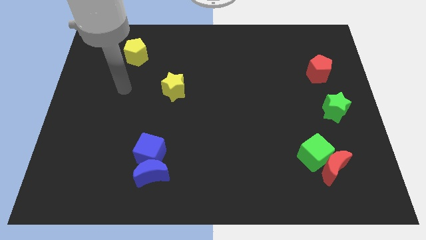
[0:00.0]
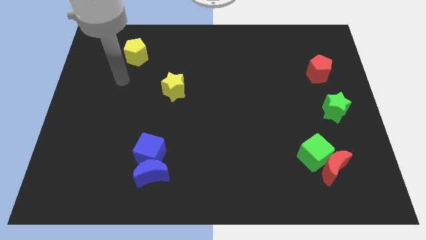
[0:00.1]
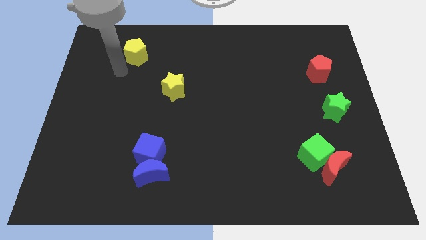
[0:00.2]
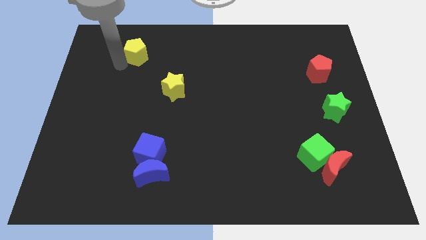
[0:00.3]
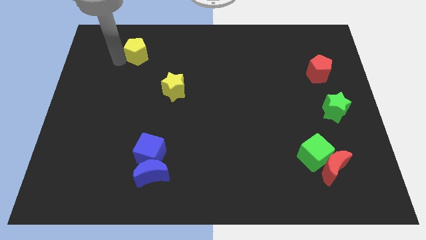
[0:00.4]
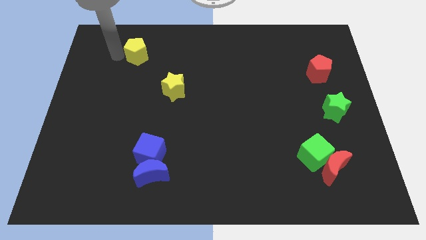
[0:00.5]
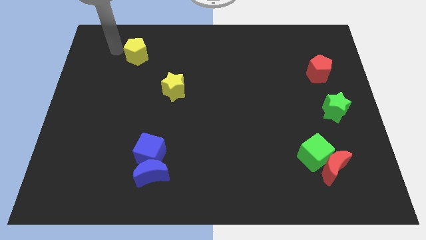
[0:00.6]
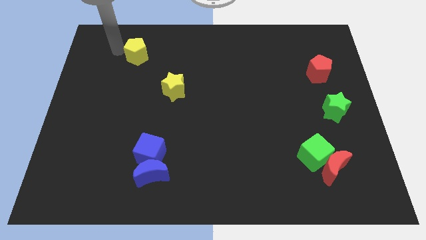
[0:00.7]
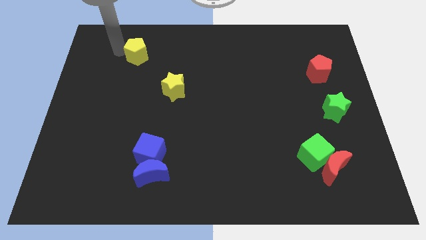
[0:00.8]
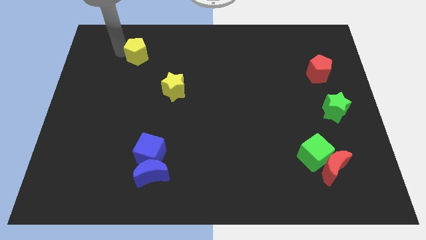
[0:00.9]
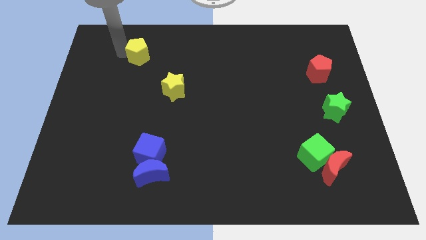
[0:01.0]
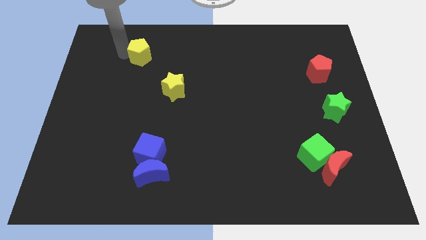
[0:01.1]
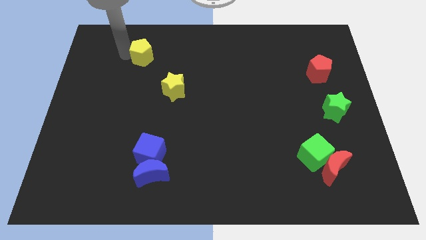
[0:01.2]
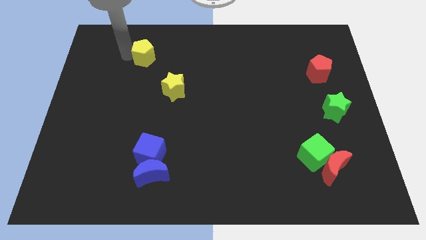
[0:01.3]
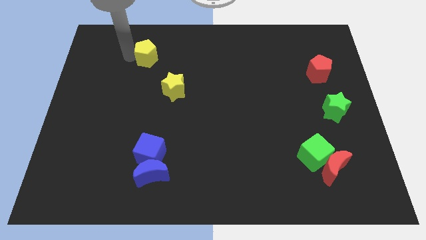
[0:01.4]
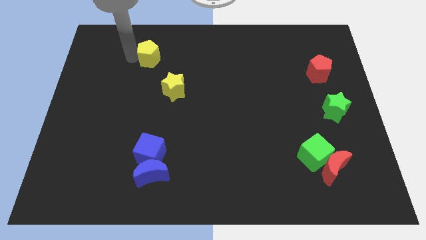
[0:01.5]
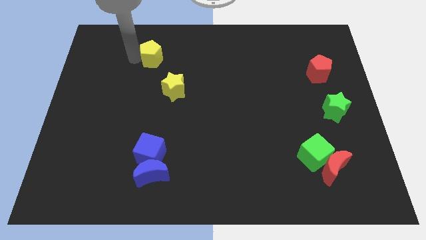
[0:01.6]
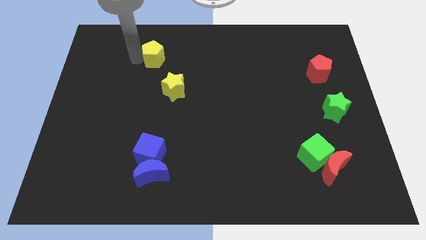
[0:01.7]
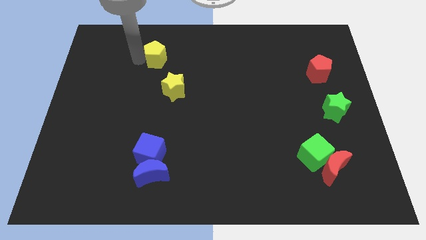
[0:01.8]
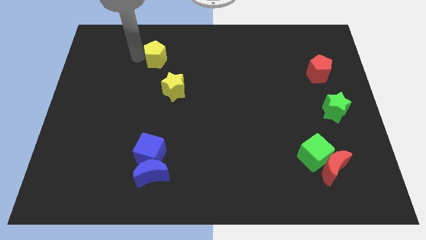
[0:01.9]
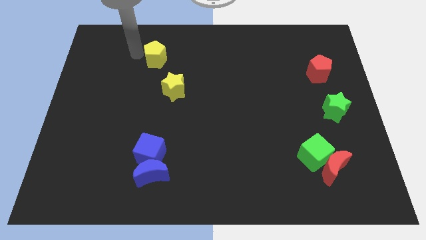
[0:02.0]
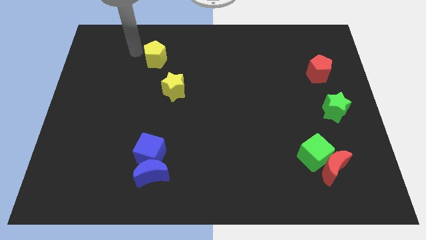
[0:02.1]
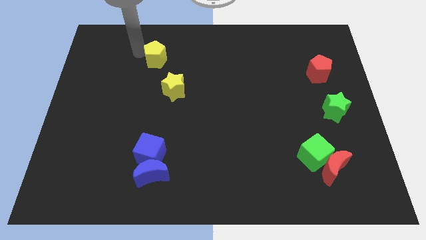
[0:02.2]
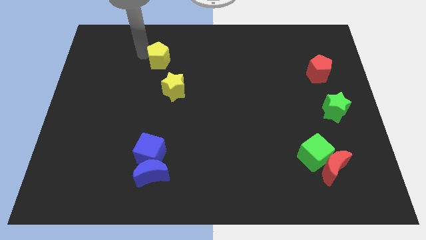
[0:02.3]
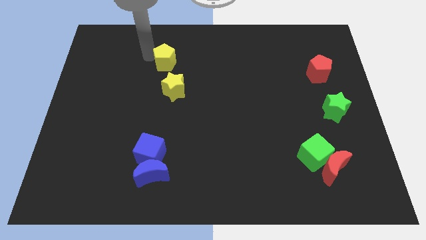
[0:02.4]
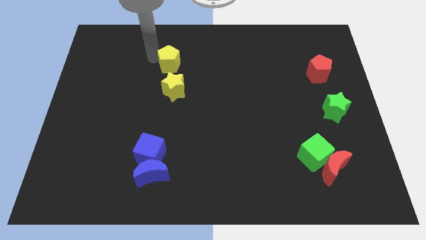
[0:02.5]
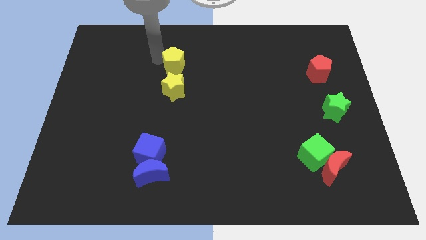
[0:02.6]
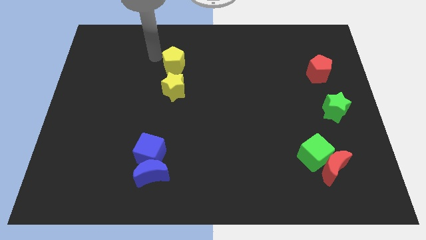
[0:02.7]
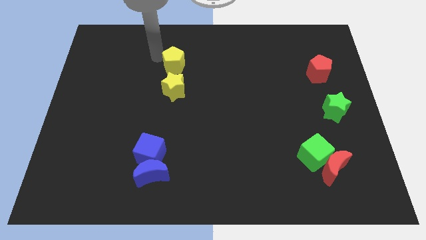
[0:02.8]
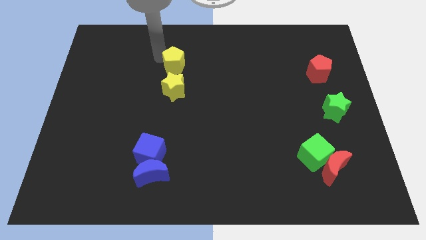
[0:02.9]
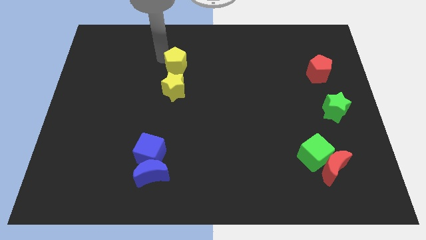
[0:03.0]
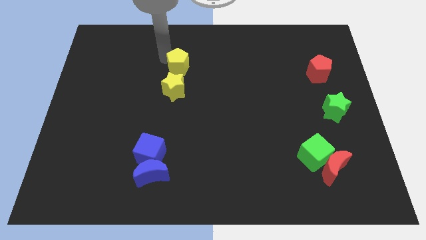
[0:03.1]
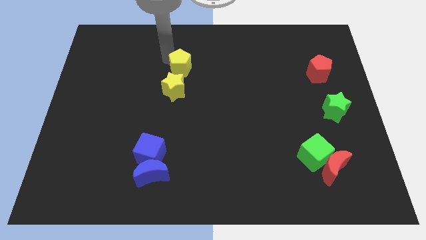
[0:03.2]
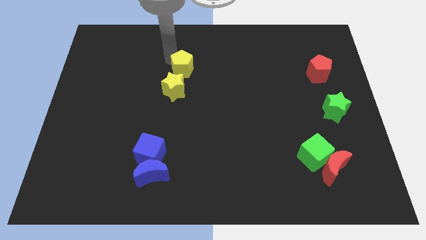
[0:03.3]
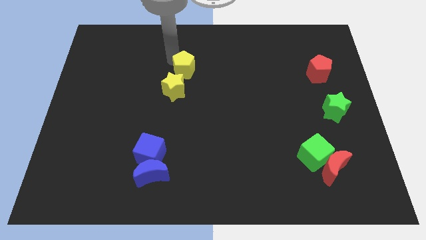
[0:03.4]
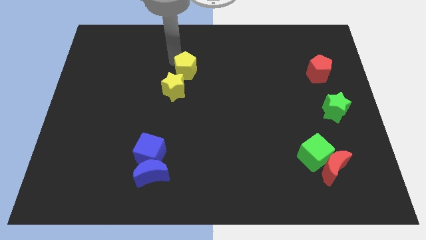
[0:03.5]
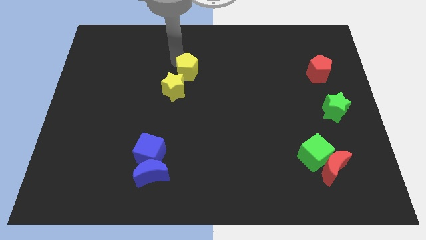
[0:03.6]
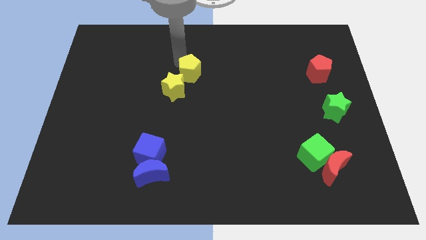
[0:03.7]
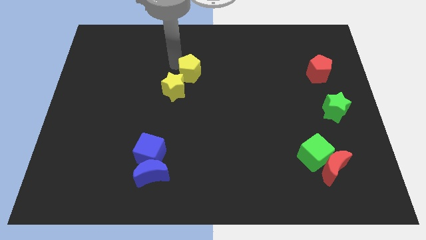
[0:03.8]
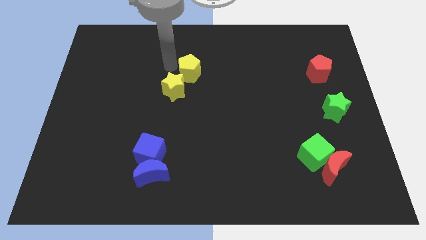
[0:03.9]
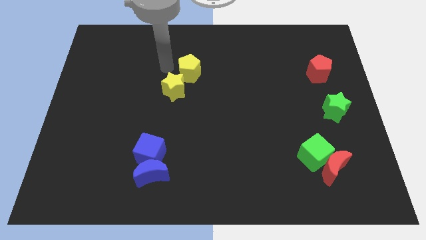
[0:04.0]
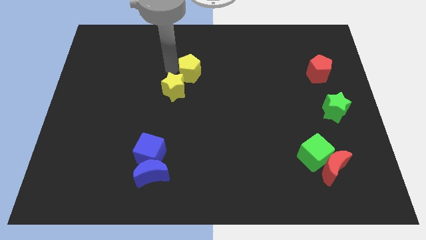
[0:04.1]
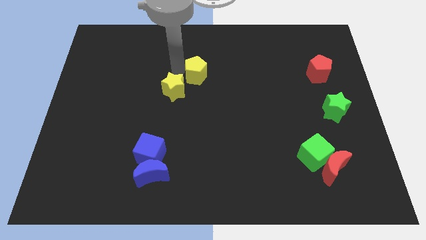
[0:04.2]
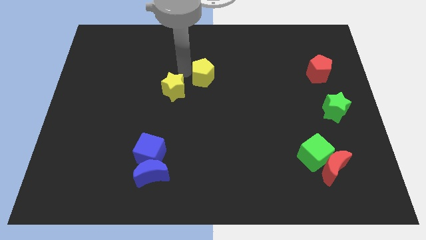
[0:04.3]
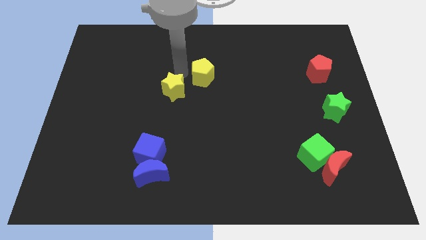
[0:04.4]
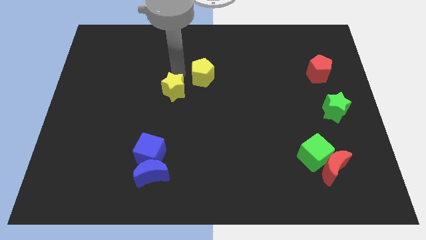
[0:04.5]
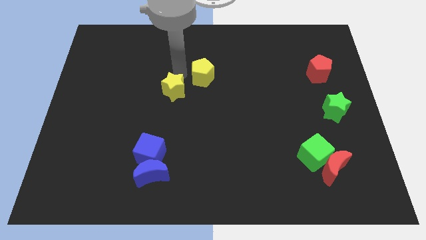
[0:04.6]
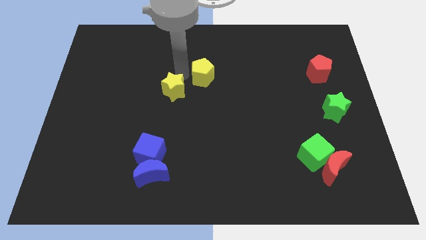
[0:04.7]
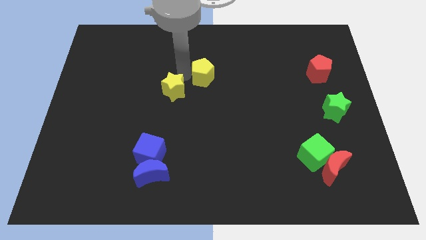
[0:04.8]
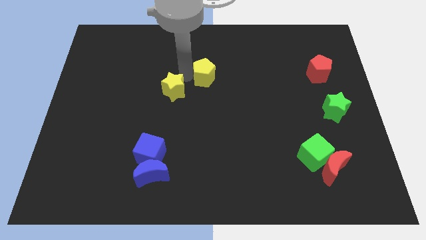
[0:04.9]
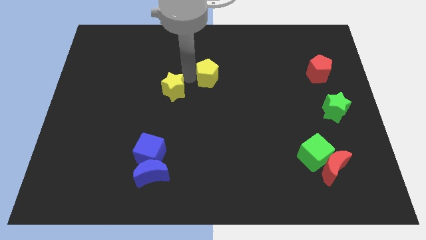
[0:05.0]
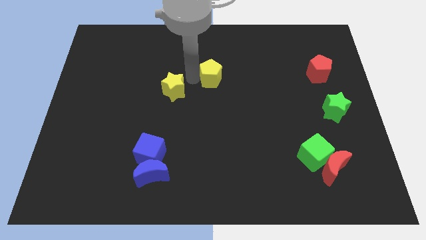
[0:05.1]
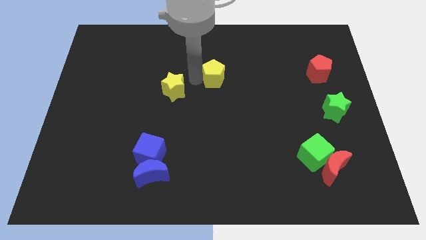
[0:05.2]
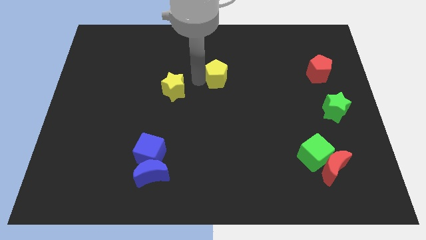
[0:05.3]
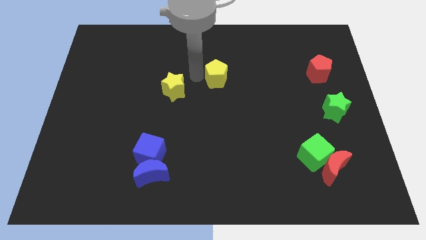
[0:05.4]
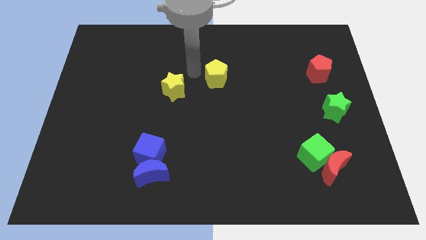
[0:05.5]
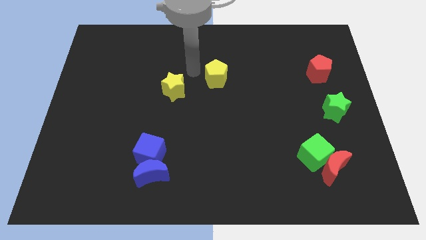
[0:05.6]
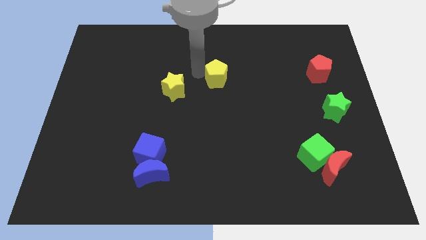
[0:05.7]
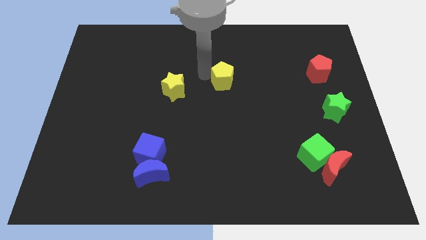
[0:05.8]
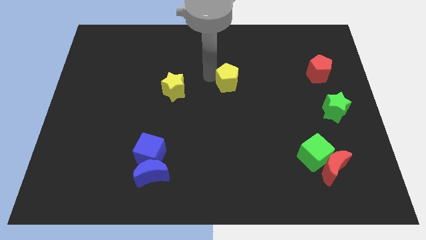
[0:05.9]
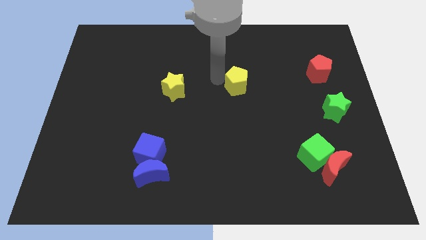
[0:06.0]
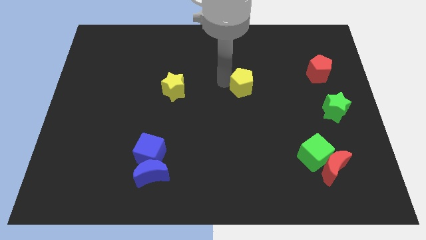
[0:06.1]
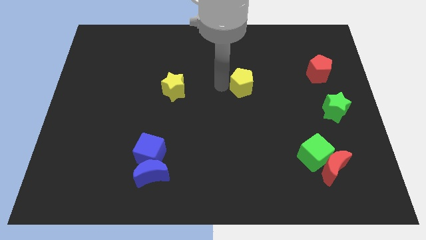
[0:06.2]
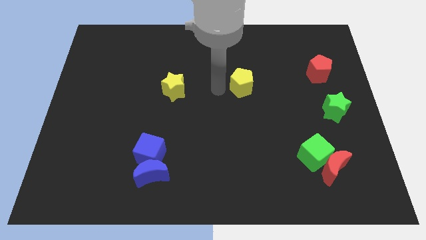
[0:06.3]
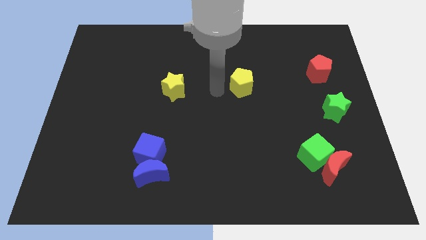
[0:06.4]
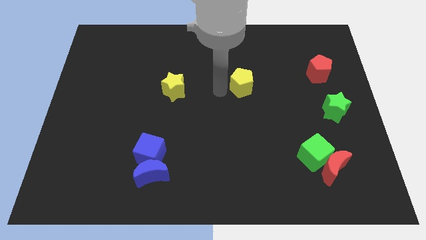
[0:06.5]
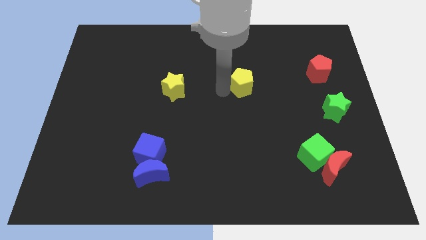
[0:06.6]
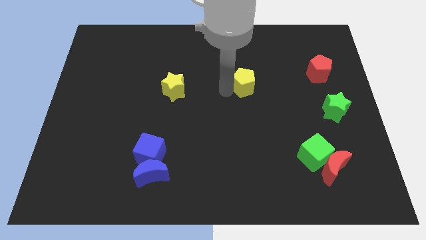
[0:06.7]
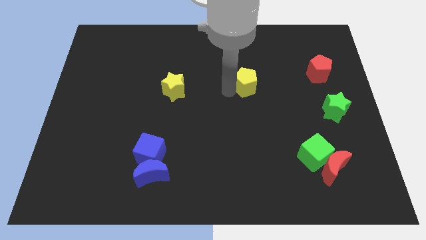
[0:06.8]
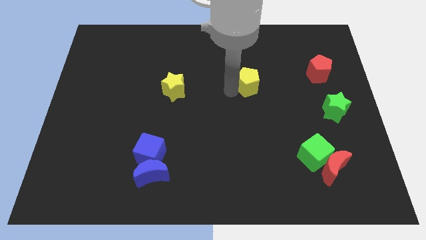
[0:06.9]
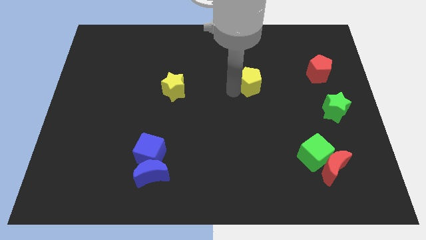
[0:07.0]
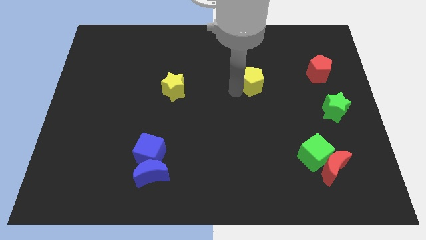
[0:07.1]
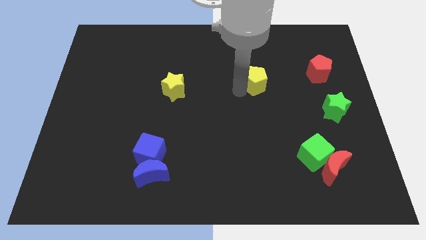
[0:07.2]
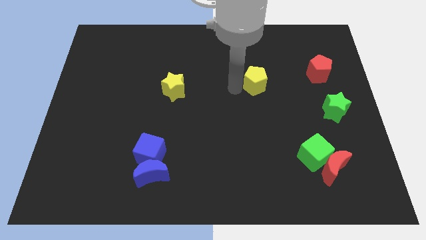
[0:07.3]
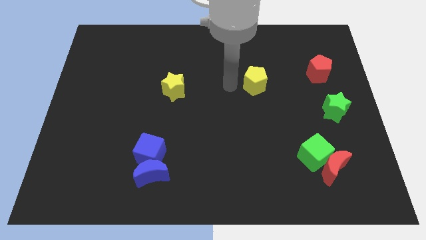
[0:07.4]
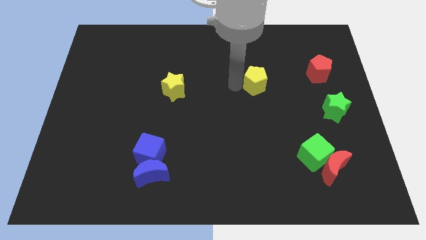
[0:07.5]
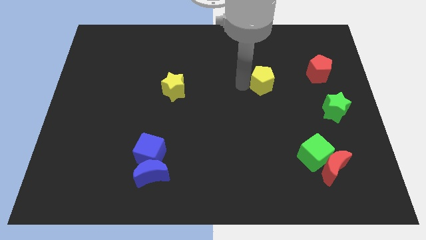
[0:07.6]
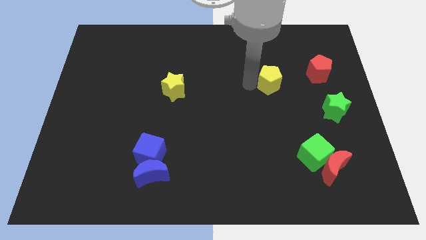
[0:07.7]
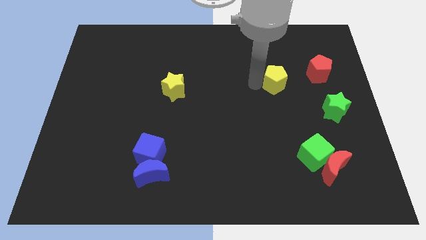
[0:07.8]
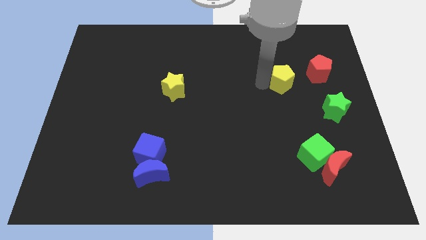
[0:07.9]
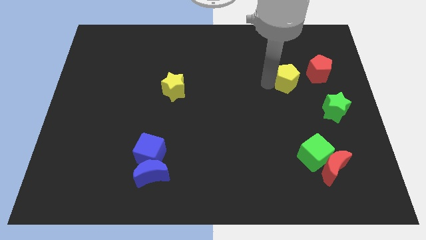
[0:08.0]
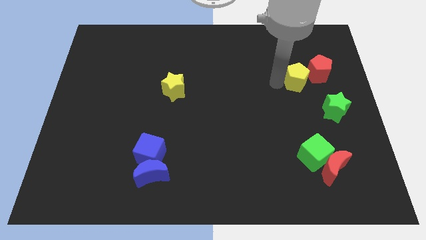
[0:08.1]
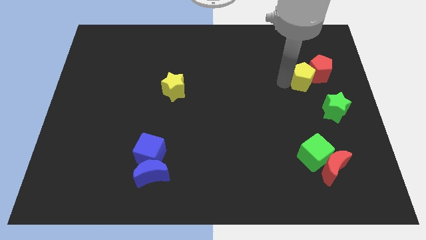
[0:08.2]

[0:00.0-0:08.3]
push the yellow pentagon towards the red pentagon

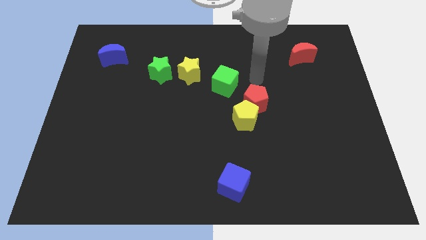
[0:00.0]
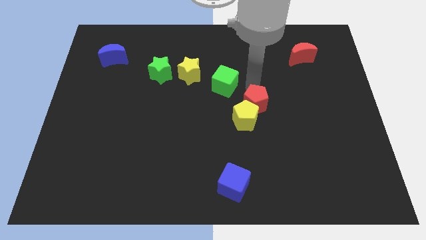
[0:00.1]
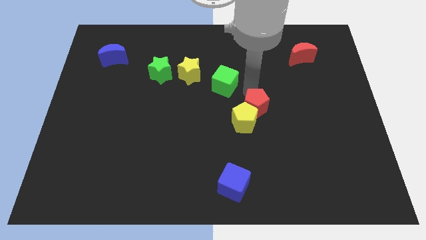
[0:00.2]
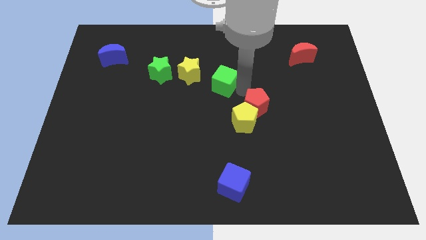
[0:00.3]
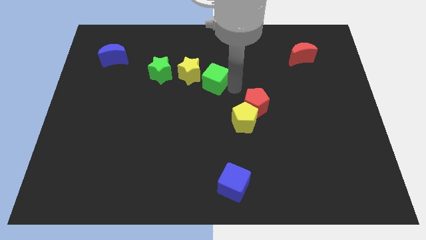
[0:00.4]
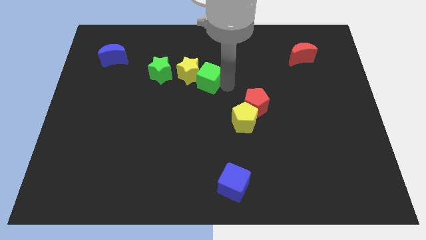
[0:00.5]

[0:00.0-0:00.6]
move the green cube close to the yellow star
